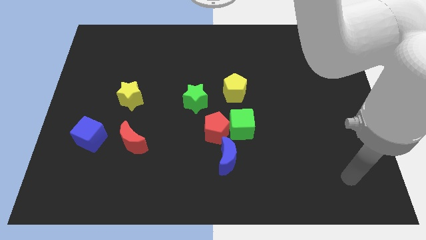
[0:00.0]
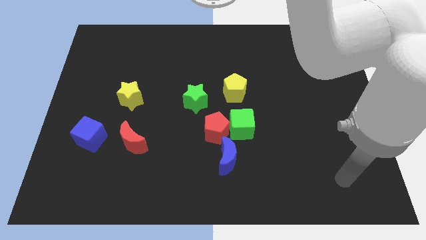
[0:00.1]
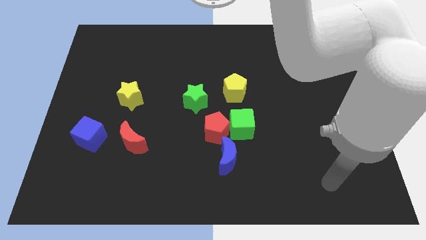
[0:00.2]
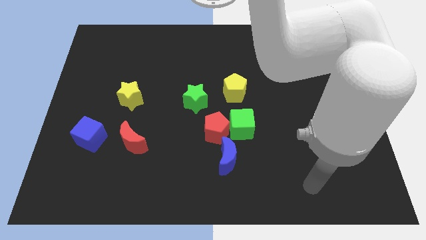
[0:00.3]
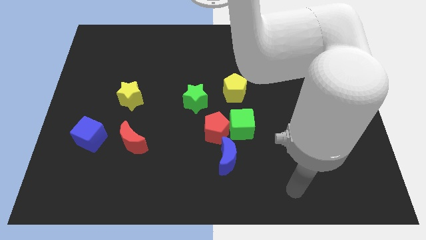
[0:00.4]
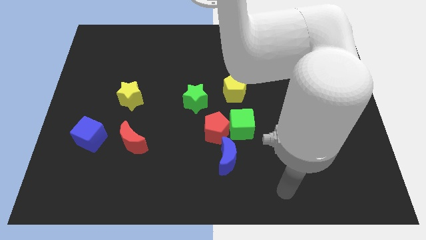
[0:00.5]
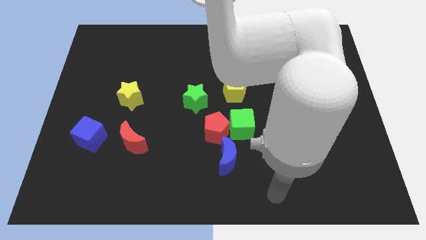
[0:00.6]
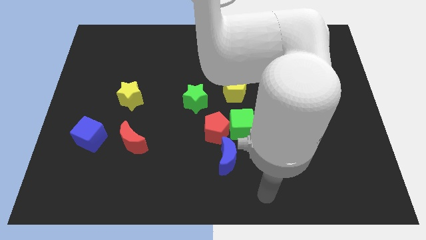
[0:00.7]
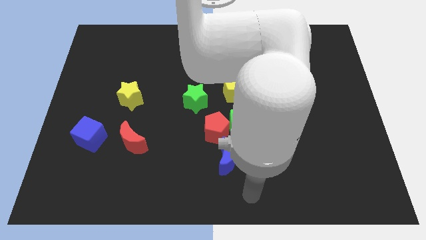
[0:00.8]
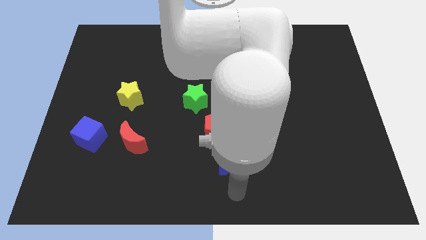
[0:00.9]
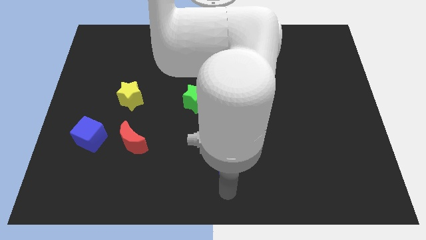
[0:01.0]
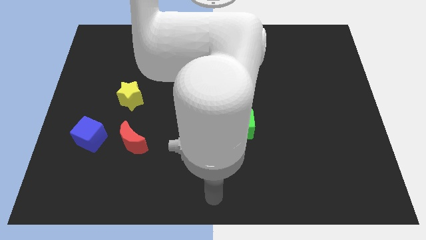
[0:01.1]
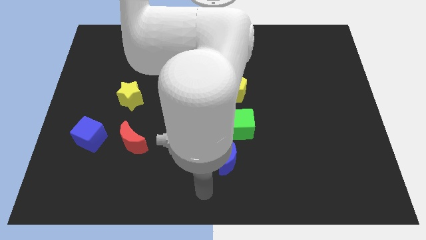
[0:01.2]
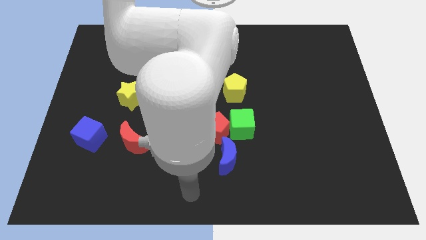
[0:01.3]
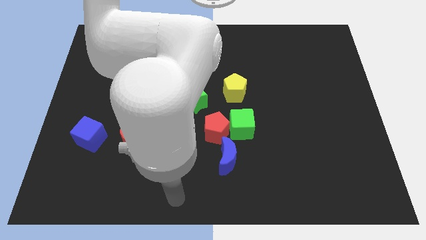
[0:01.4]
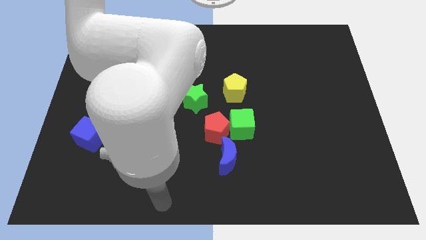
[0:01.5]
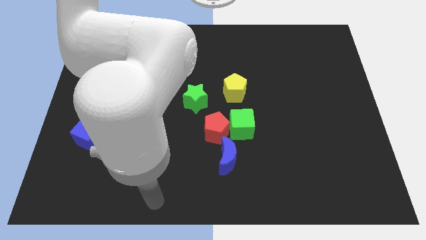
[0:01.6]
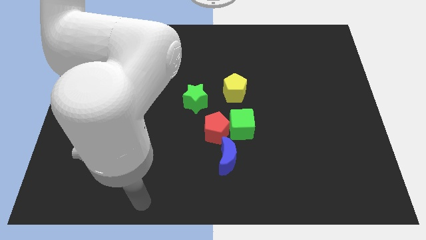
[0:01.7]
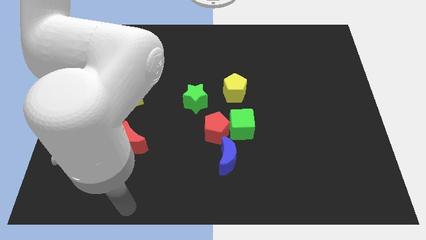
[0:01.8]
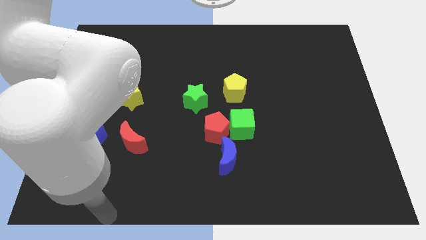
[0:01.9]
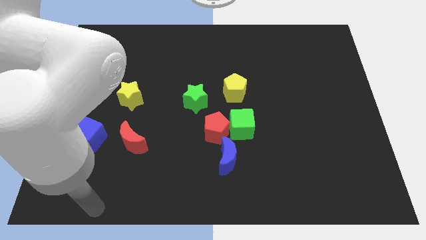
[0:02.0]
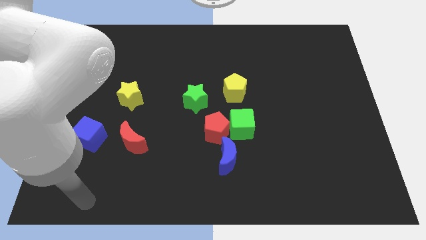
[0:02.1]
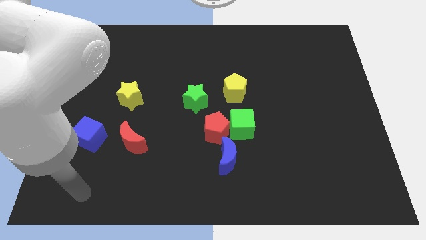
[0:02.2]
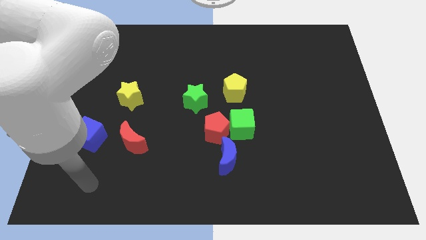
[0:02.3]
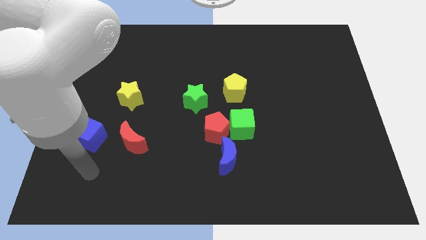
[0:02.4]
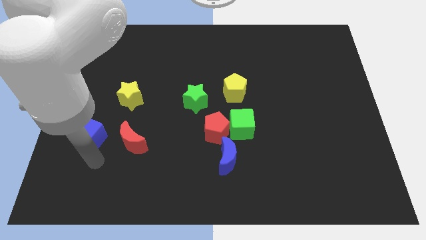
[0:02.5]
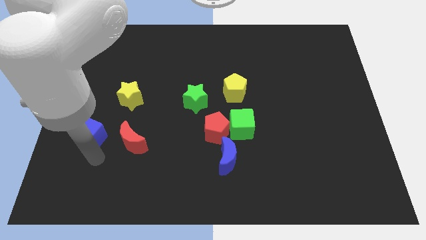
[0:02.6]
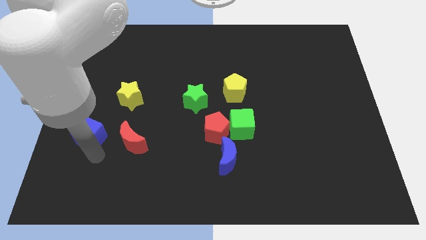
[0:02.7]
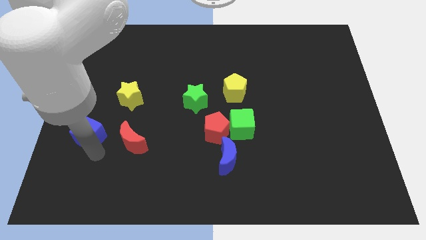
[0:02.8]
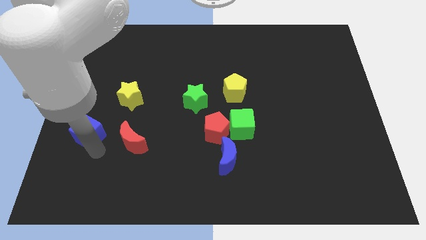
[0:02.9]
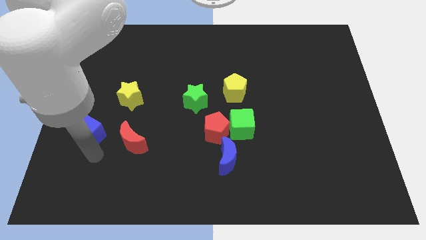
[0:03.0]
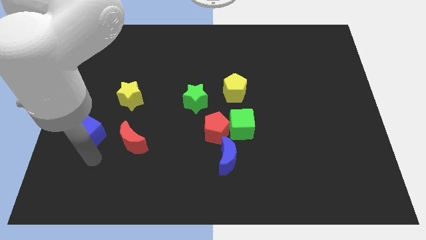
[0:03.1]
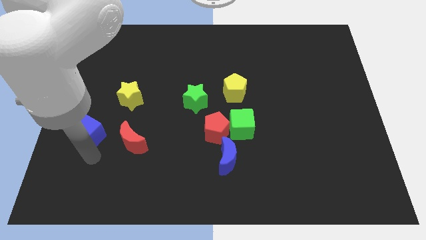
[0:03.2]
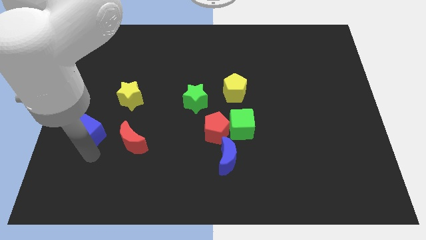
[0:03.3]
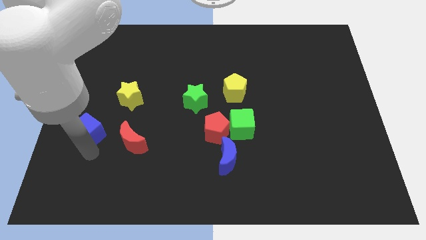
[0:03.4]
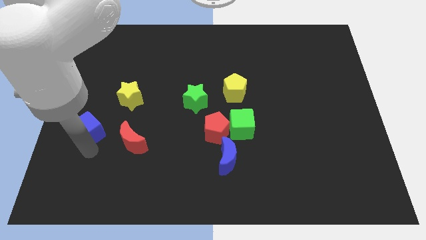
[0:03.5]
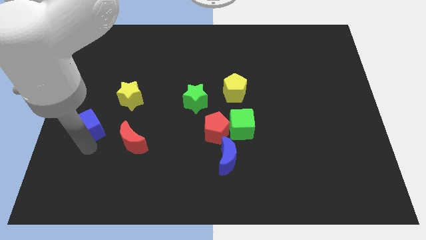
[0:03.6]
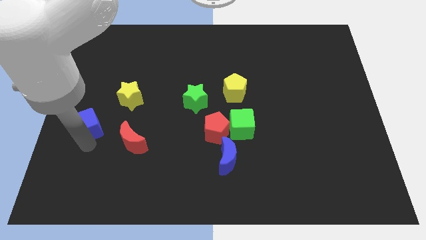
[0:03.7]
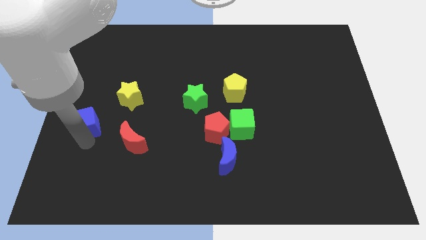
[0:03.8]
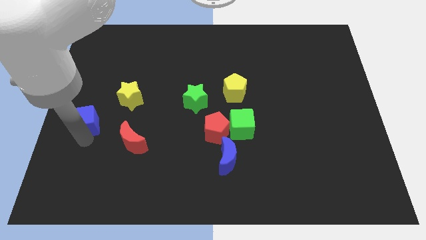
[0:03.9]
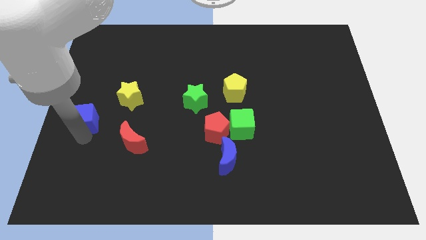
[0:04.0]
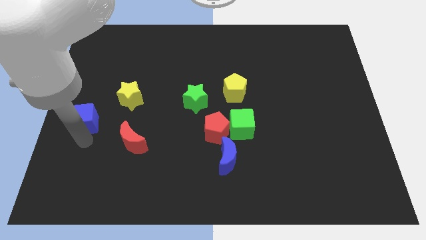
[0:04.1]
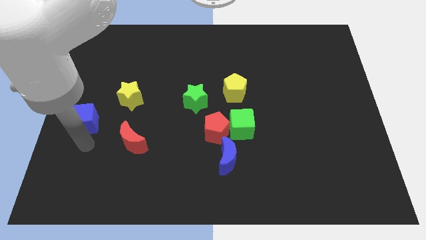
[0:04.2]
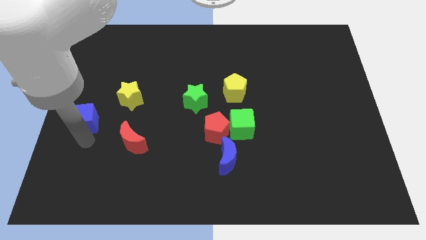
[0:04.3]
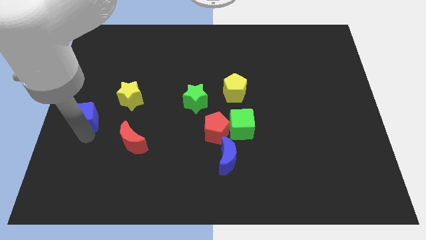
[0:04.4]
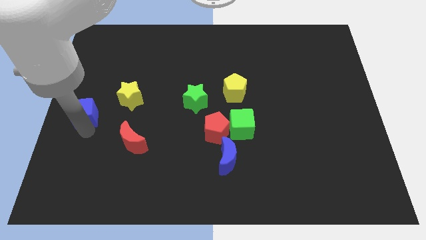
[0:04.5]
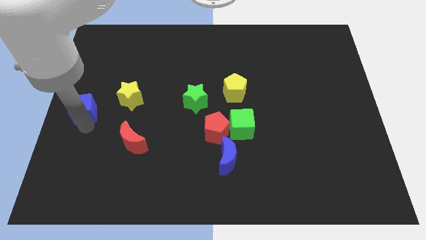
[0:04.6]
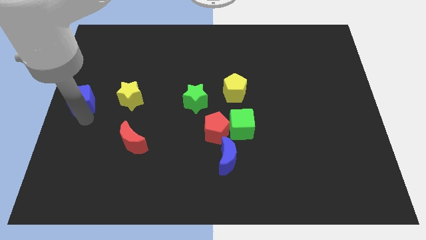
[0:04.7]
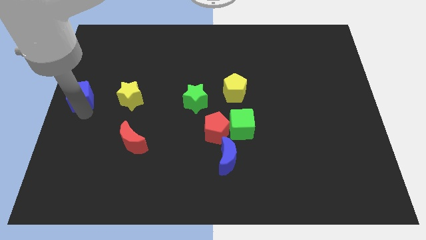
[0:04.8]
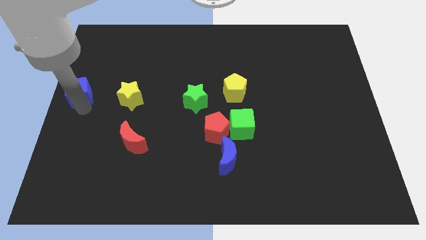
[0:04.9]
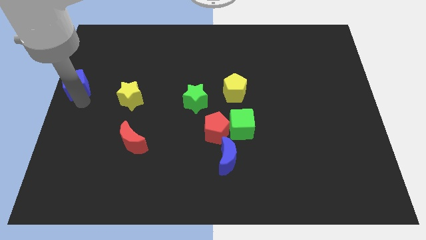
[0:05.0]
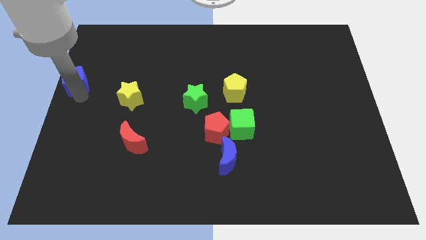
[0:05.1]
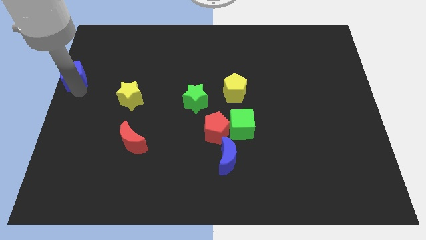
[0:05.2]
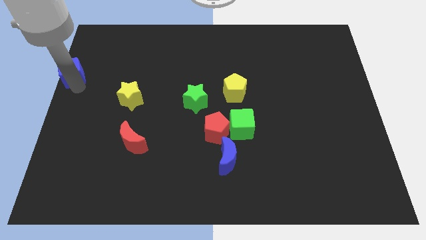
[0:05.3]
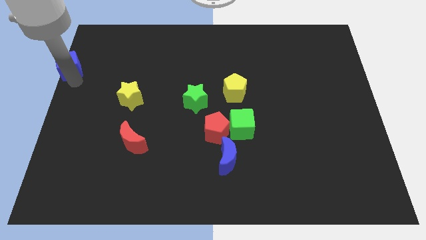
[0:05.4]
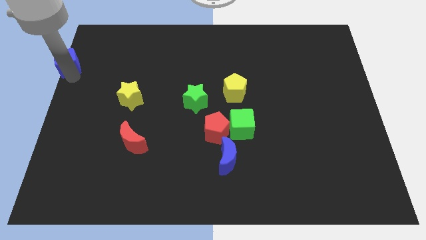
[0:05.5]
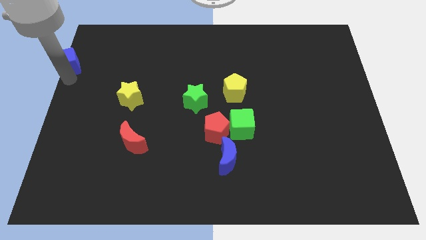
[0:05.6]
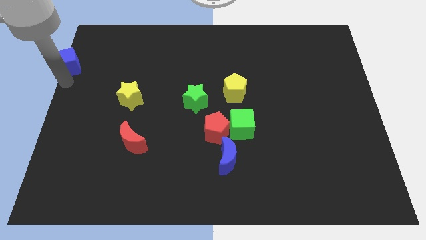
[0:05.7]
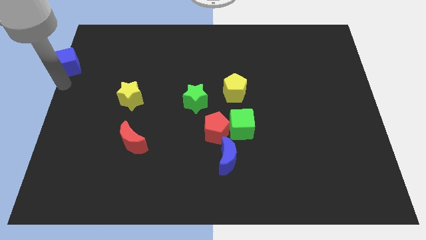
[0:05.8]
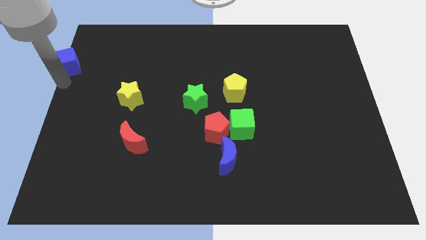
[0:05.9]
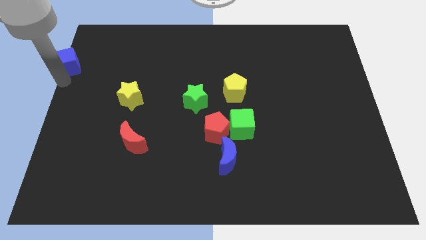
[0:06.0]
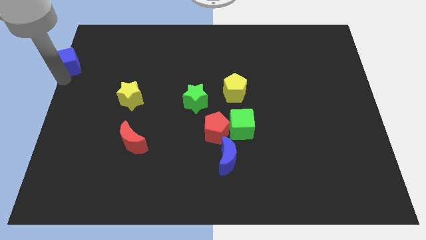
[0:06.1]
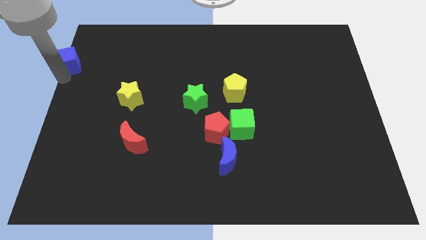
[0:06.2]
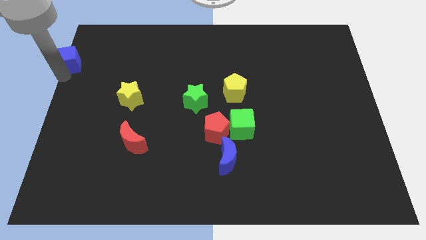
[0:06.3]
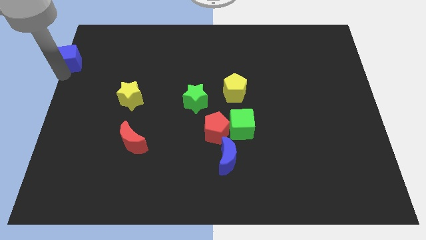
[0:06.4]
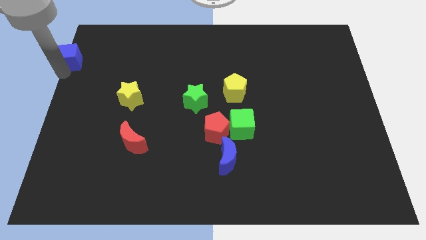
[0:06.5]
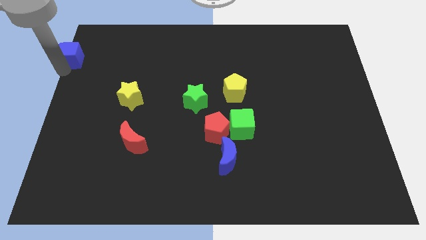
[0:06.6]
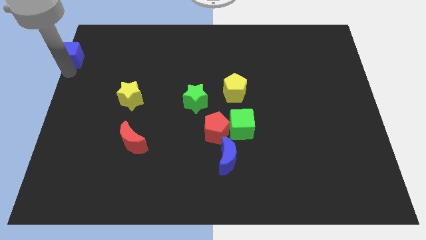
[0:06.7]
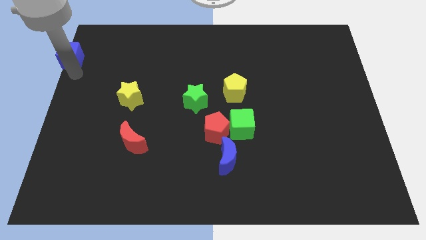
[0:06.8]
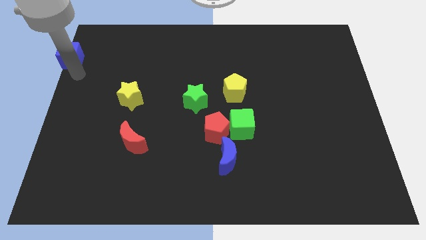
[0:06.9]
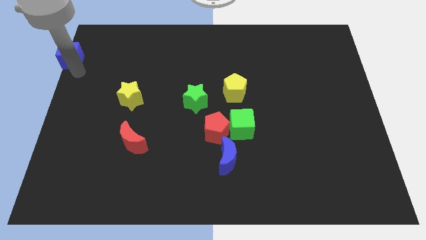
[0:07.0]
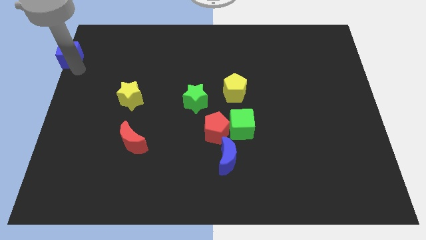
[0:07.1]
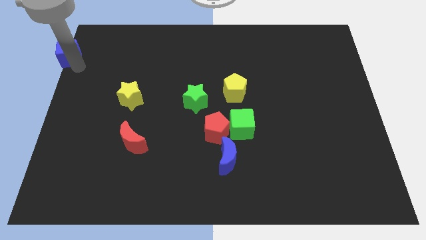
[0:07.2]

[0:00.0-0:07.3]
slide the blue cube to the top left of the board
